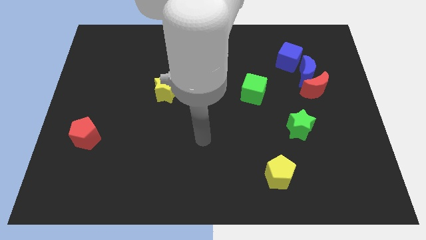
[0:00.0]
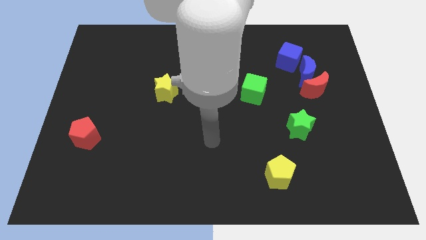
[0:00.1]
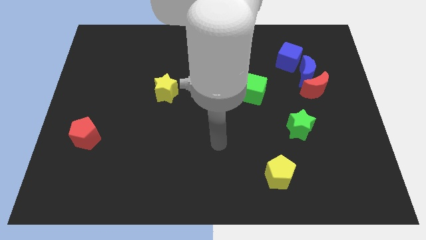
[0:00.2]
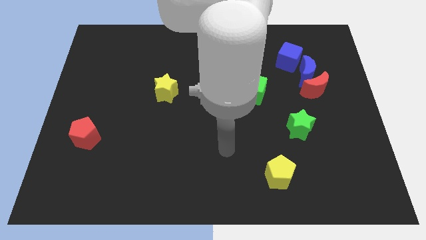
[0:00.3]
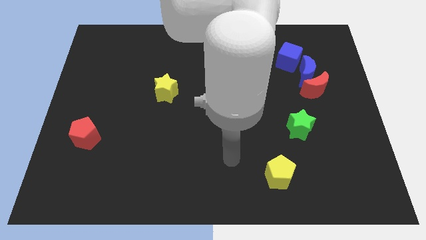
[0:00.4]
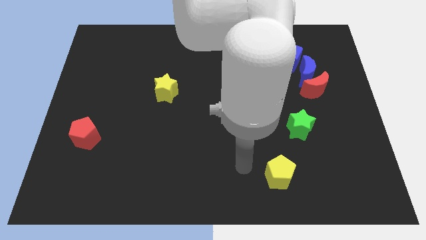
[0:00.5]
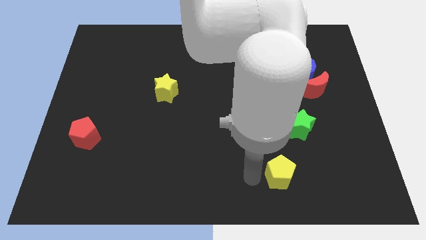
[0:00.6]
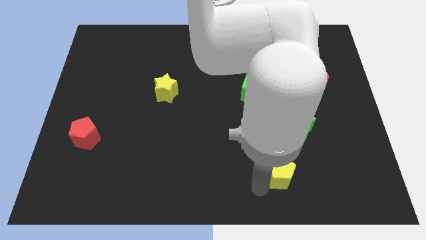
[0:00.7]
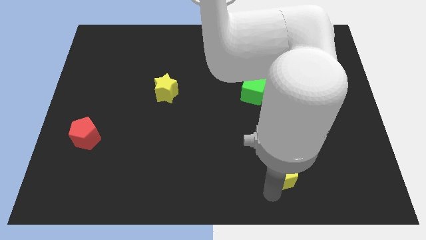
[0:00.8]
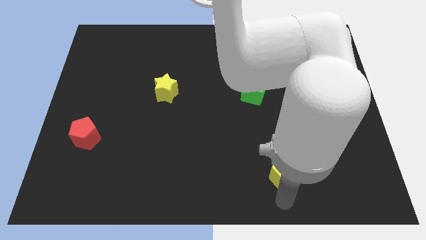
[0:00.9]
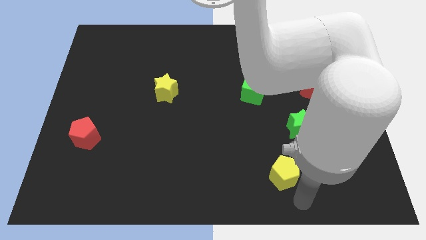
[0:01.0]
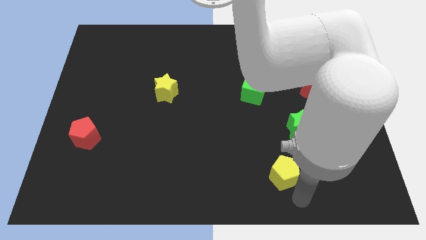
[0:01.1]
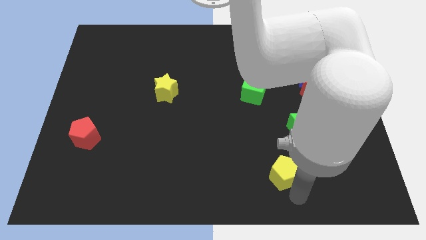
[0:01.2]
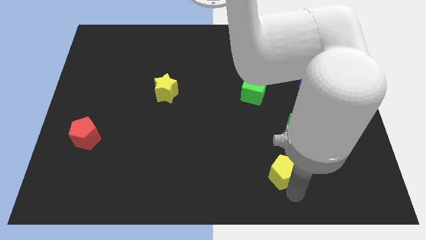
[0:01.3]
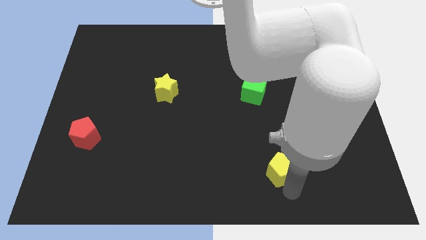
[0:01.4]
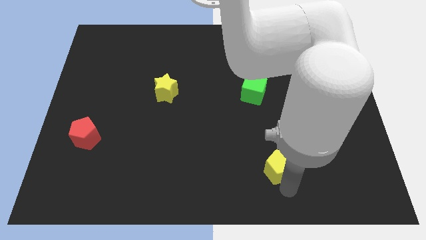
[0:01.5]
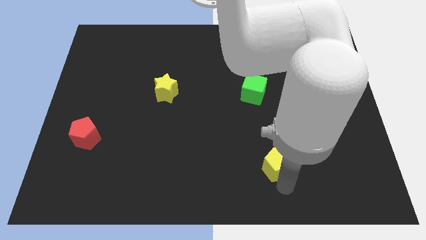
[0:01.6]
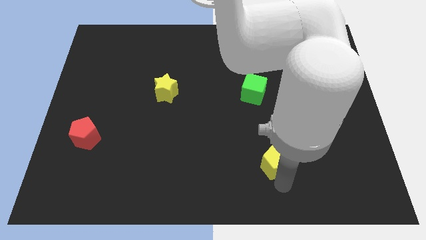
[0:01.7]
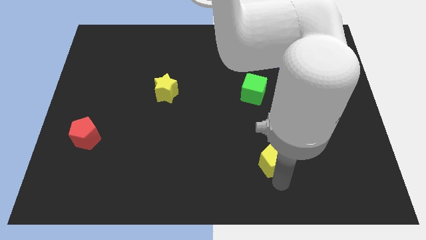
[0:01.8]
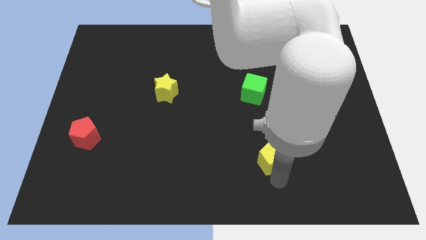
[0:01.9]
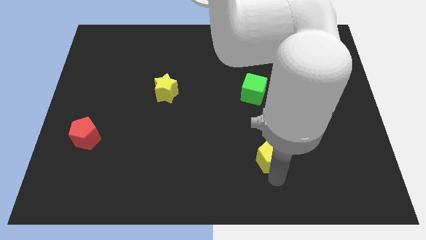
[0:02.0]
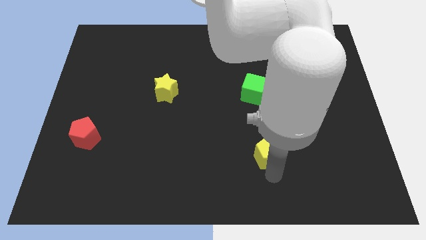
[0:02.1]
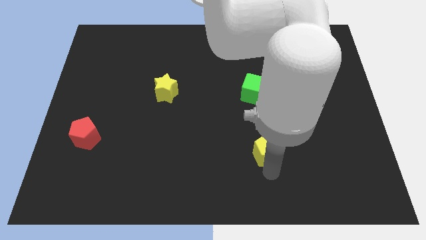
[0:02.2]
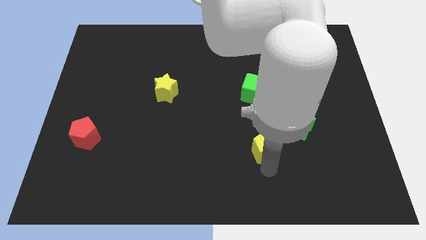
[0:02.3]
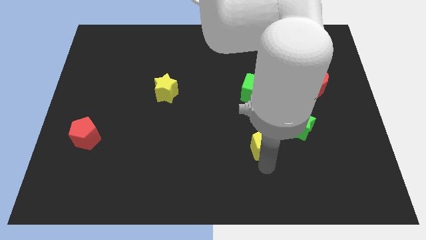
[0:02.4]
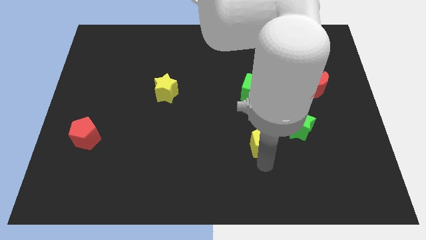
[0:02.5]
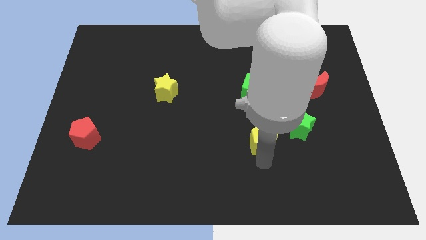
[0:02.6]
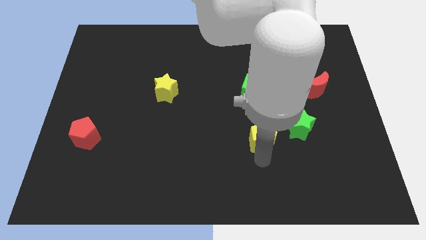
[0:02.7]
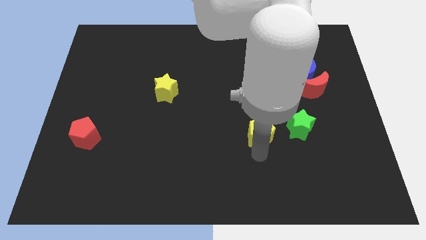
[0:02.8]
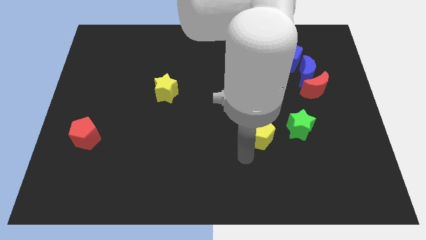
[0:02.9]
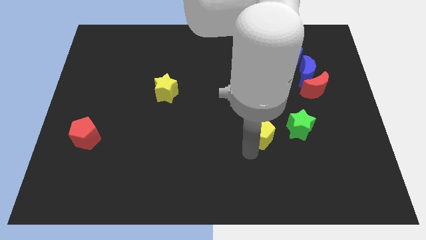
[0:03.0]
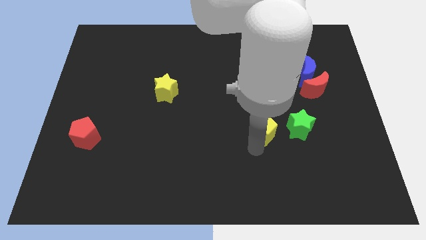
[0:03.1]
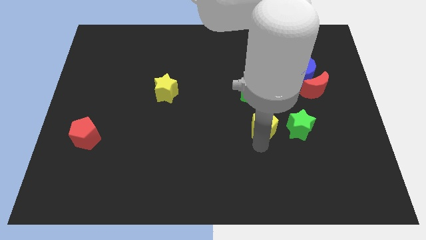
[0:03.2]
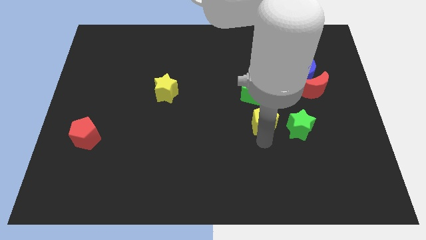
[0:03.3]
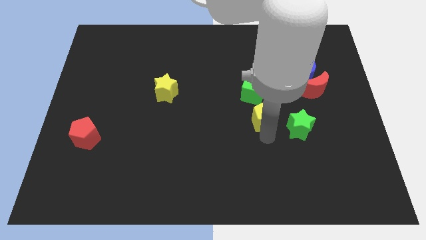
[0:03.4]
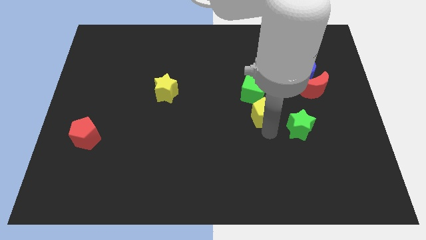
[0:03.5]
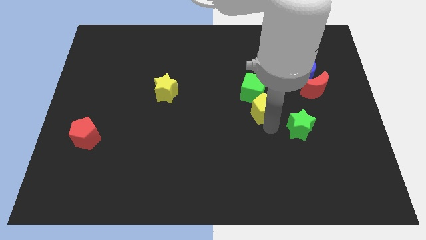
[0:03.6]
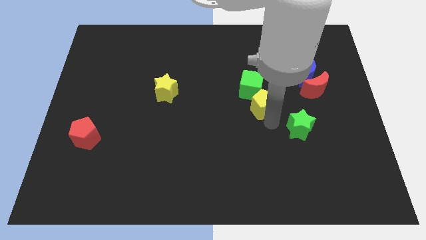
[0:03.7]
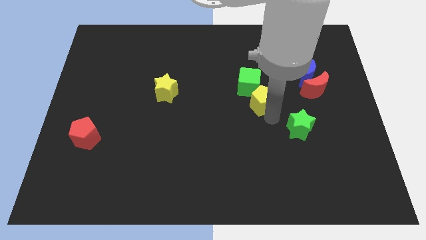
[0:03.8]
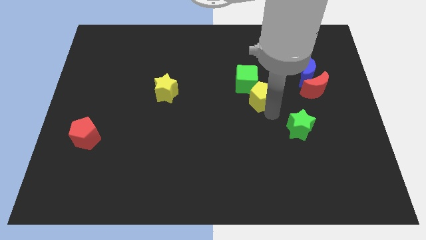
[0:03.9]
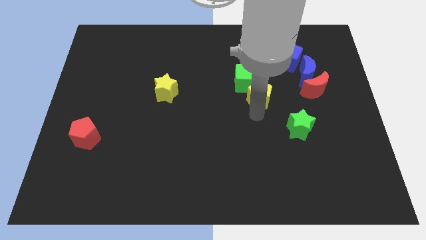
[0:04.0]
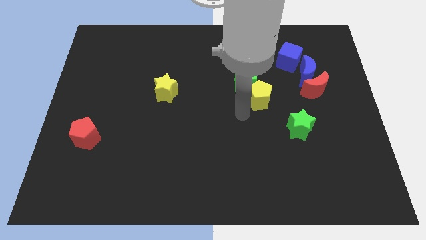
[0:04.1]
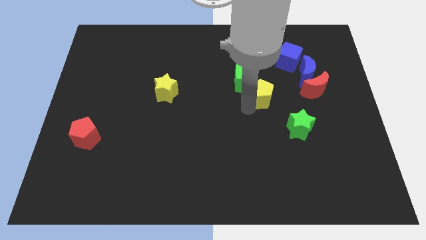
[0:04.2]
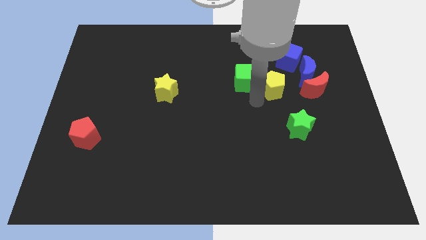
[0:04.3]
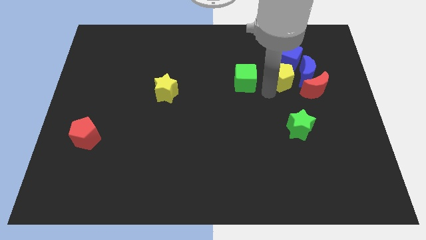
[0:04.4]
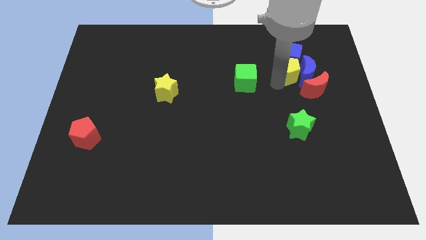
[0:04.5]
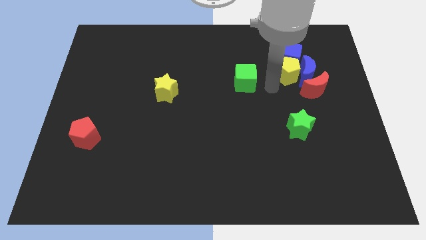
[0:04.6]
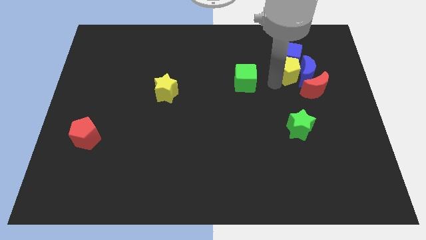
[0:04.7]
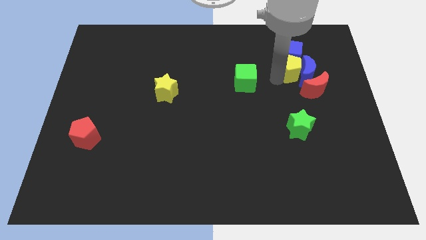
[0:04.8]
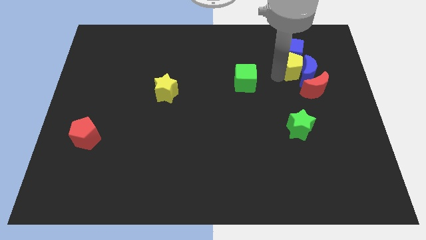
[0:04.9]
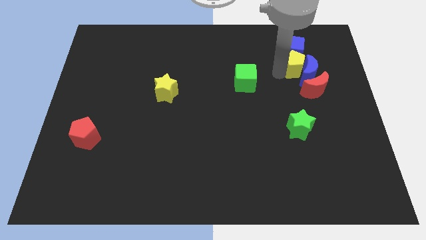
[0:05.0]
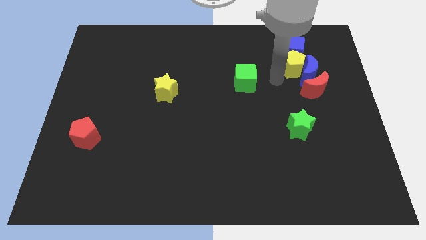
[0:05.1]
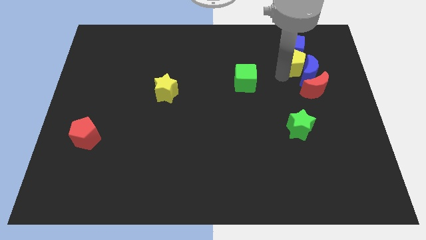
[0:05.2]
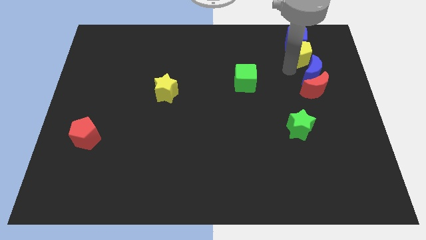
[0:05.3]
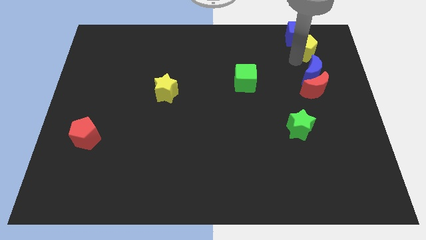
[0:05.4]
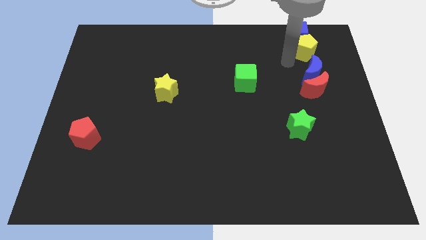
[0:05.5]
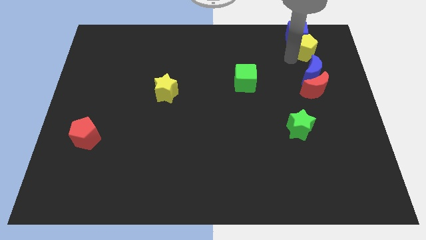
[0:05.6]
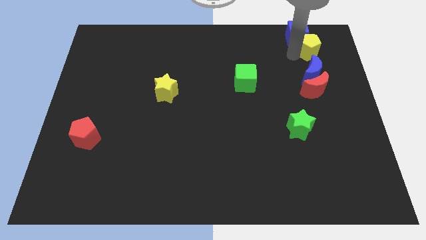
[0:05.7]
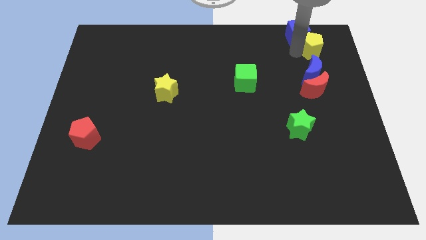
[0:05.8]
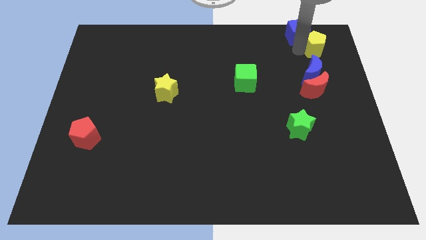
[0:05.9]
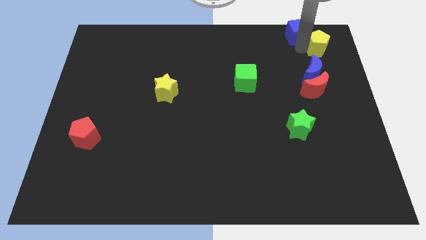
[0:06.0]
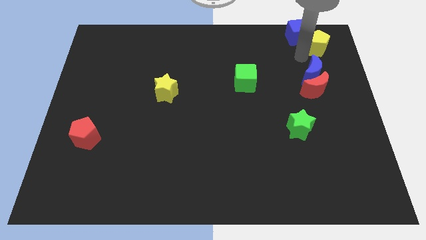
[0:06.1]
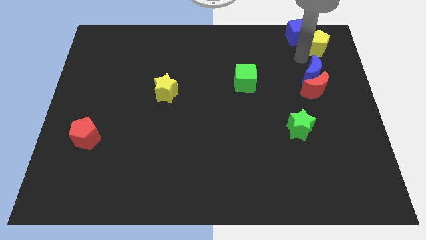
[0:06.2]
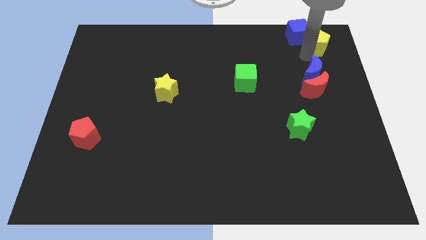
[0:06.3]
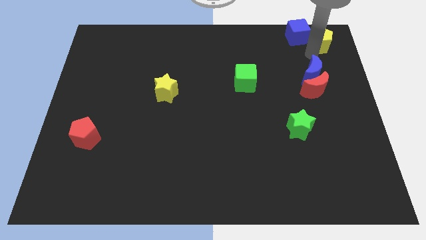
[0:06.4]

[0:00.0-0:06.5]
slide the yellow pentagon to the upper right corner
